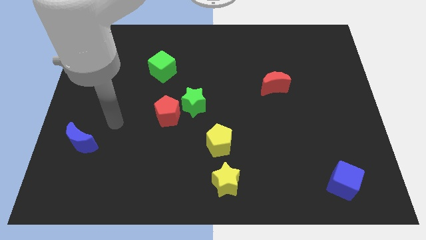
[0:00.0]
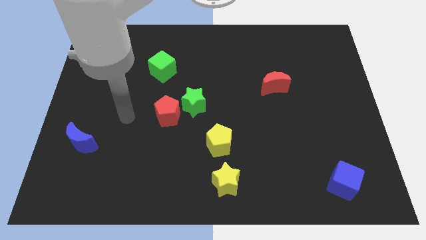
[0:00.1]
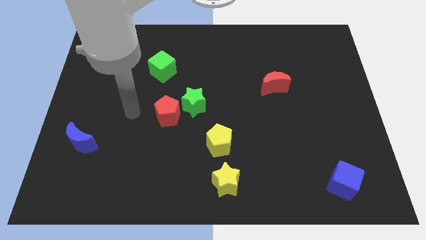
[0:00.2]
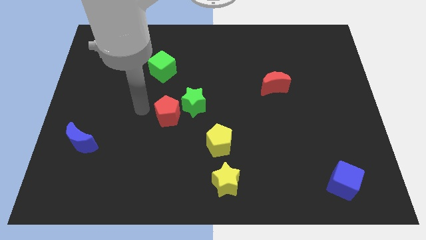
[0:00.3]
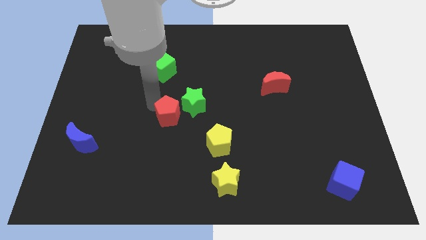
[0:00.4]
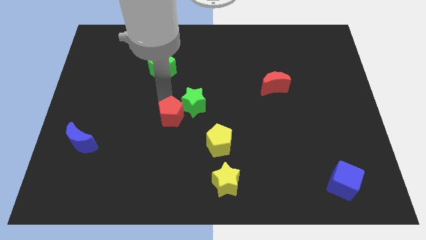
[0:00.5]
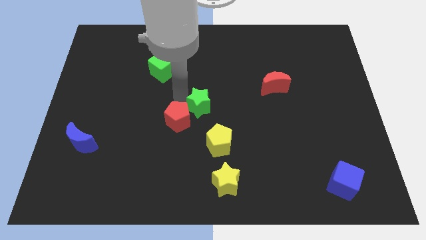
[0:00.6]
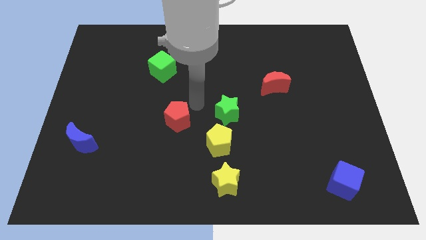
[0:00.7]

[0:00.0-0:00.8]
pull the red pentagon apart from the green star

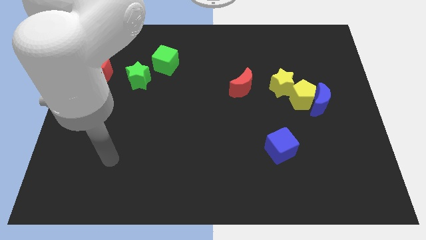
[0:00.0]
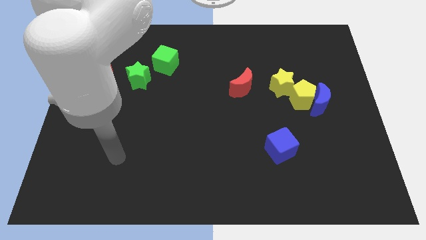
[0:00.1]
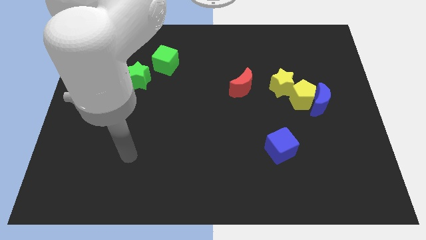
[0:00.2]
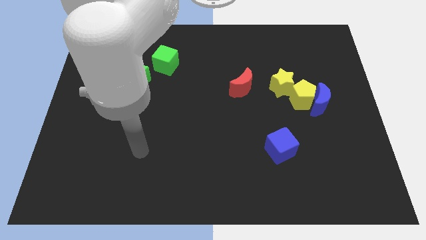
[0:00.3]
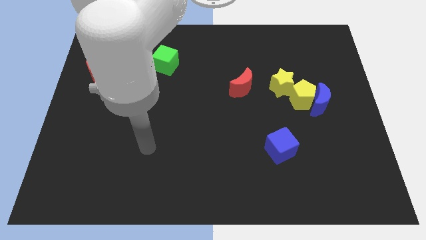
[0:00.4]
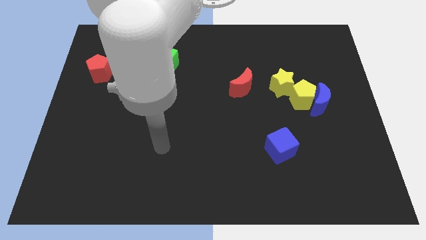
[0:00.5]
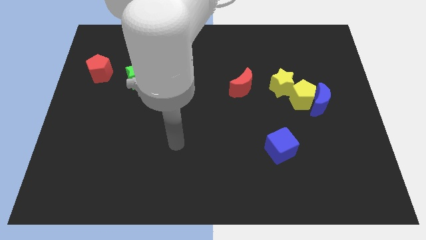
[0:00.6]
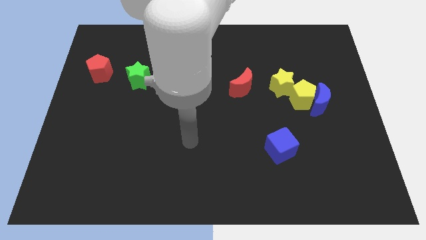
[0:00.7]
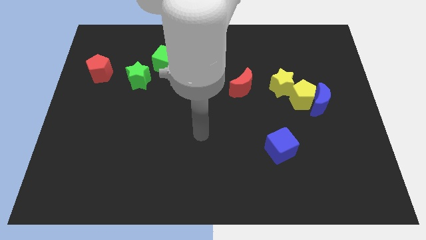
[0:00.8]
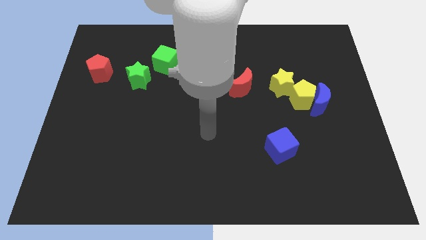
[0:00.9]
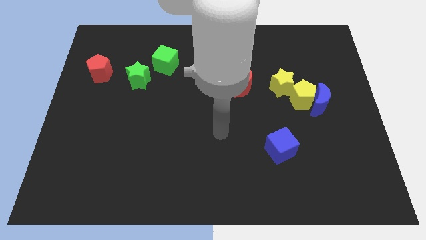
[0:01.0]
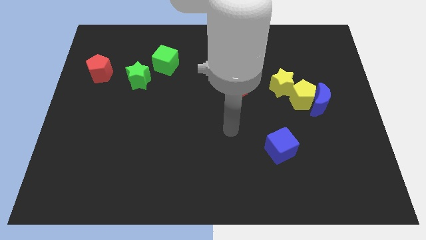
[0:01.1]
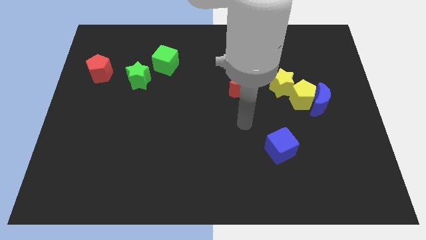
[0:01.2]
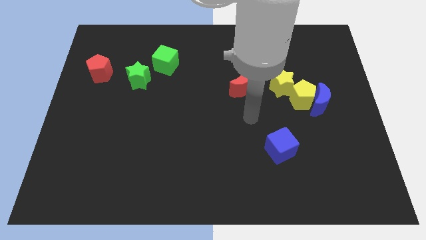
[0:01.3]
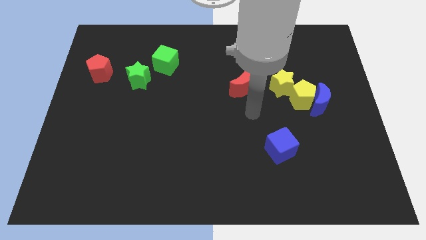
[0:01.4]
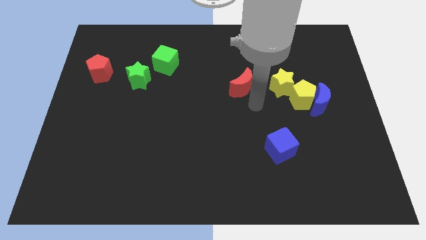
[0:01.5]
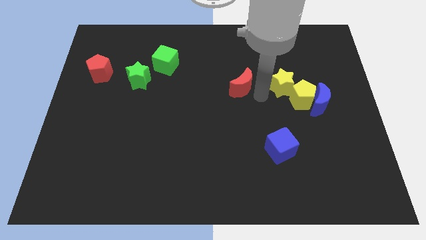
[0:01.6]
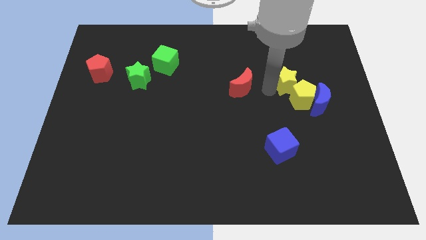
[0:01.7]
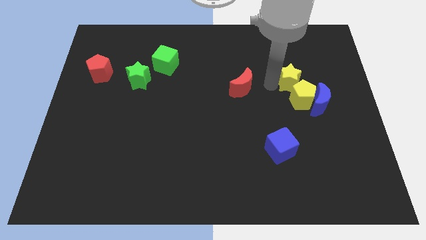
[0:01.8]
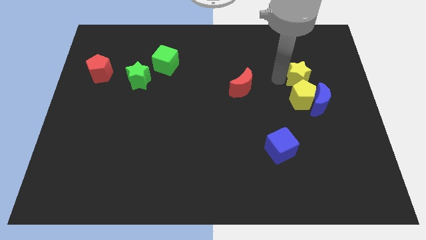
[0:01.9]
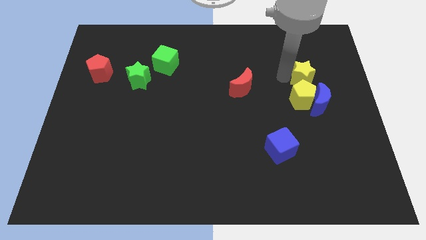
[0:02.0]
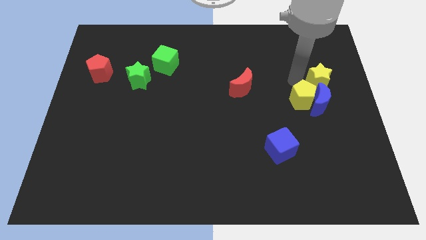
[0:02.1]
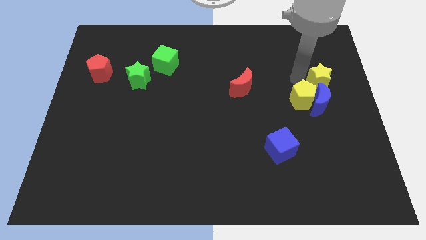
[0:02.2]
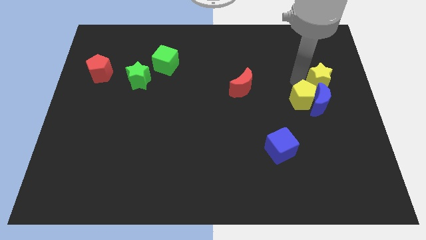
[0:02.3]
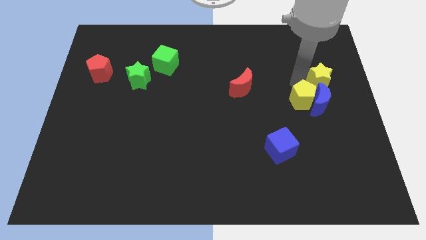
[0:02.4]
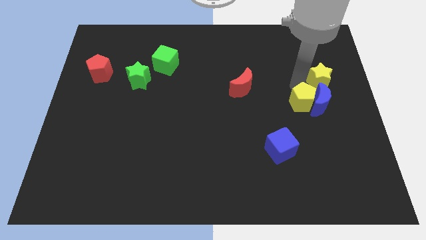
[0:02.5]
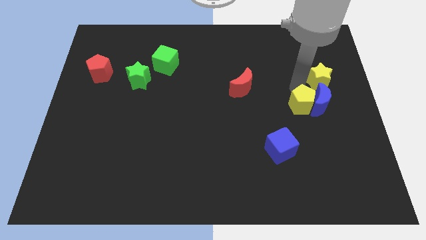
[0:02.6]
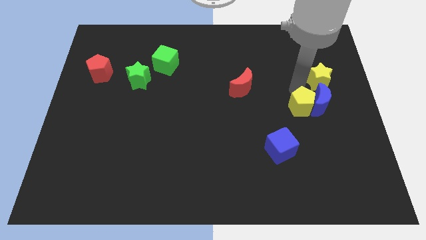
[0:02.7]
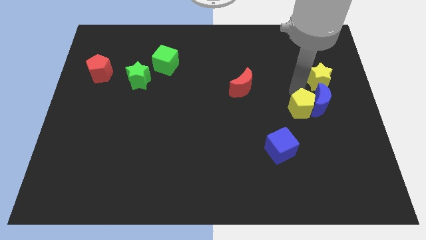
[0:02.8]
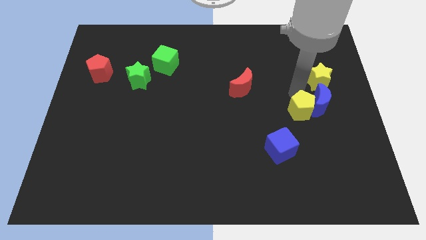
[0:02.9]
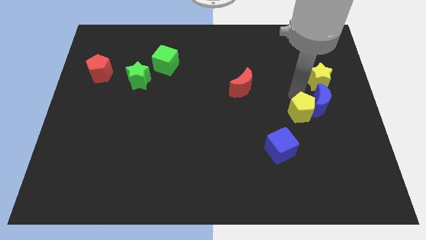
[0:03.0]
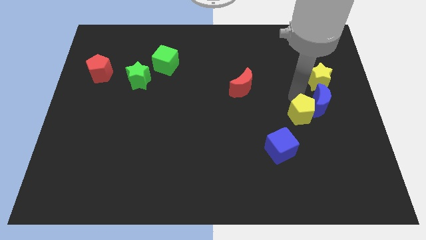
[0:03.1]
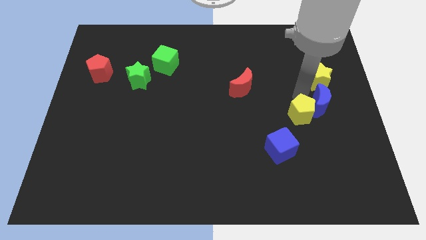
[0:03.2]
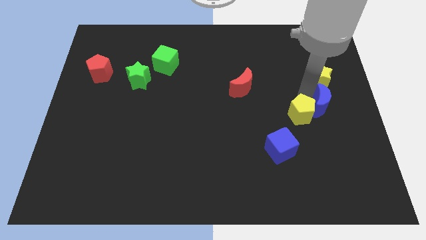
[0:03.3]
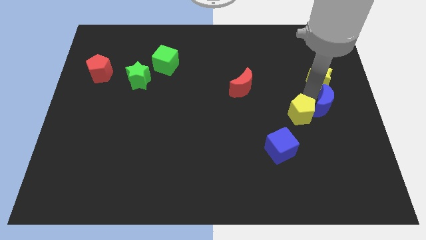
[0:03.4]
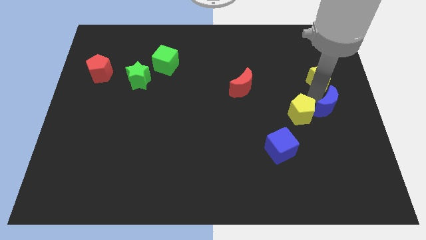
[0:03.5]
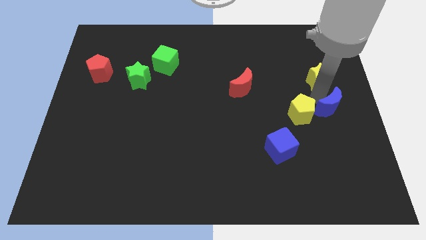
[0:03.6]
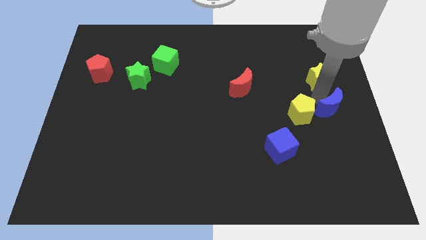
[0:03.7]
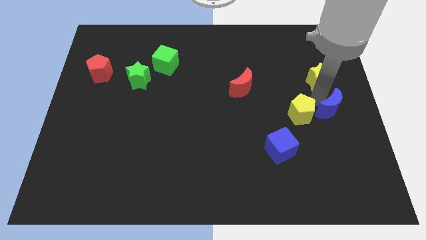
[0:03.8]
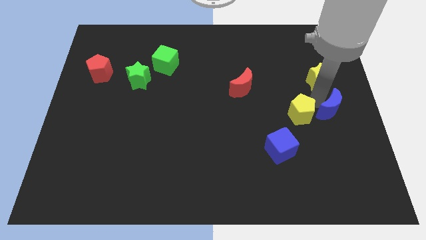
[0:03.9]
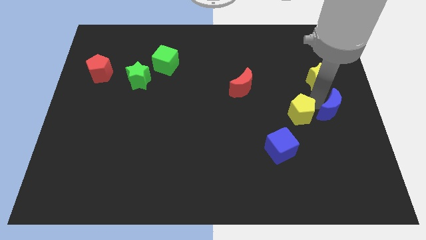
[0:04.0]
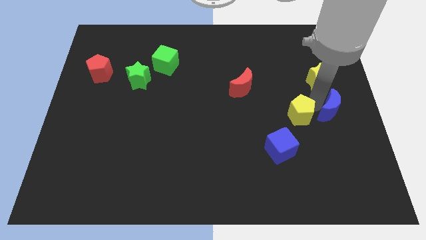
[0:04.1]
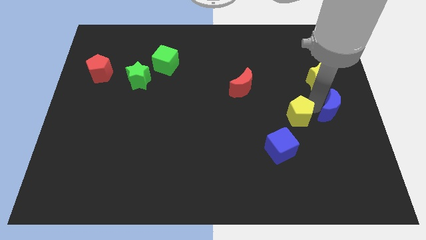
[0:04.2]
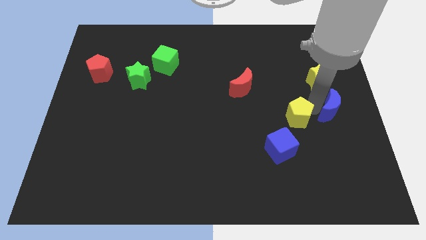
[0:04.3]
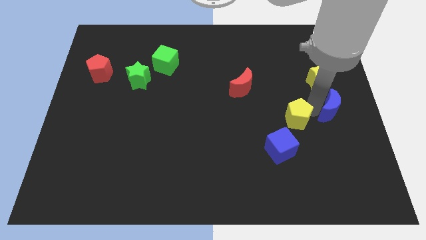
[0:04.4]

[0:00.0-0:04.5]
pull the yellow pentagon apart from the blue moon and yellow star

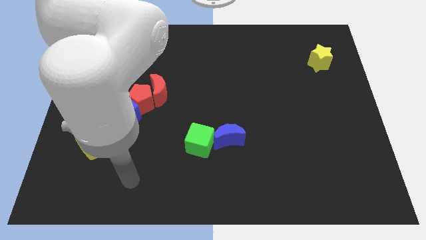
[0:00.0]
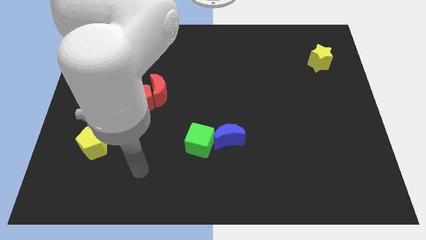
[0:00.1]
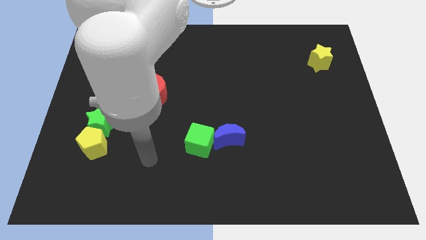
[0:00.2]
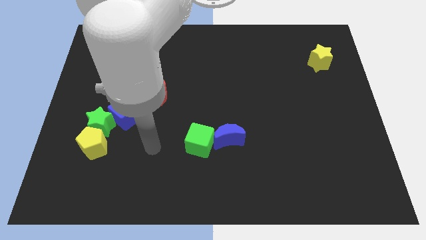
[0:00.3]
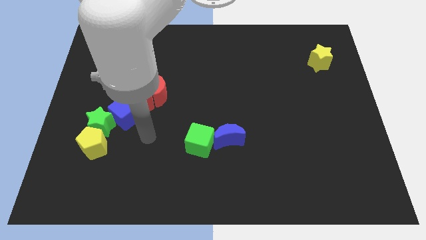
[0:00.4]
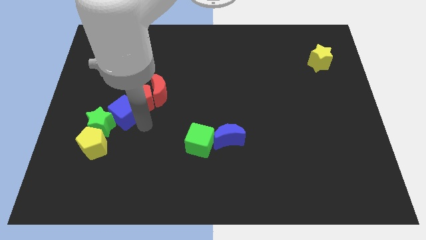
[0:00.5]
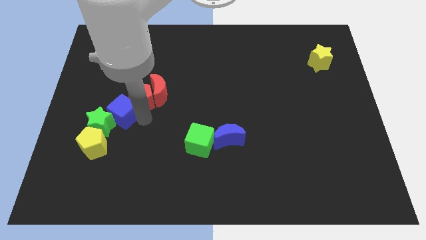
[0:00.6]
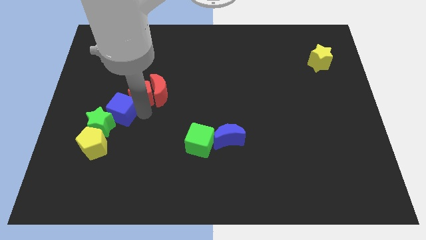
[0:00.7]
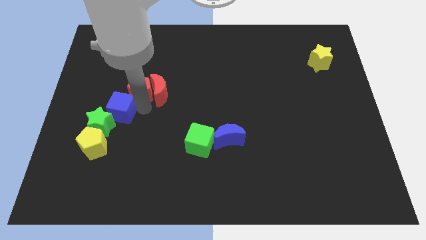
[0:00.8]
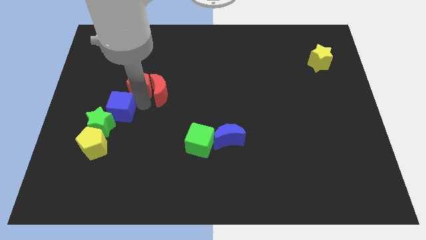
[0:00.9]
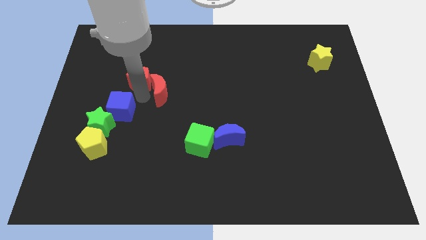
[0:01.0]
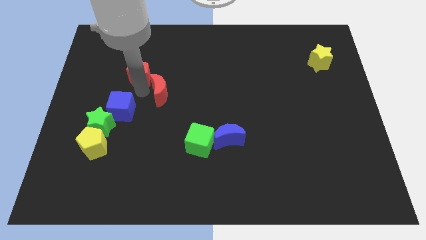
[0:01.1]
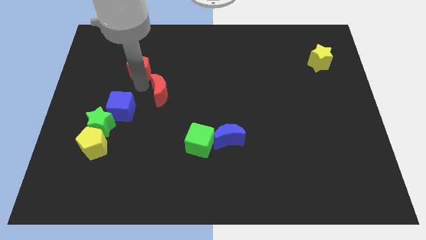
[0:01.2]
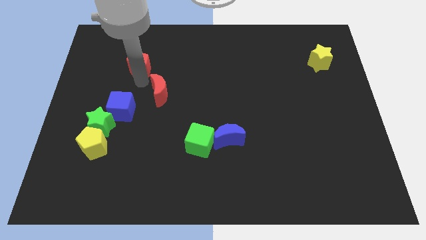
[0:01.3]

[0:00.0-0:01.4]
pull the red pentagon apart from the red moon and blue cube

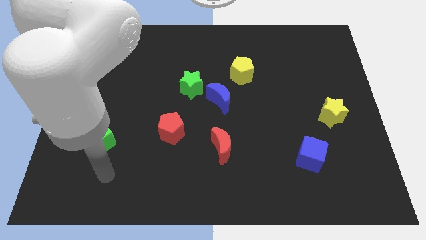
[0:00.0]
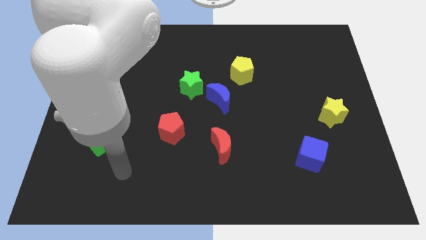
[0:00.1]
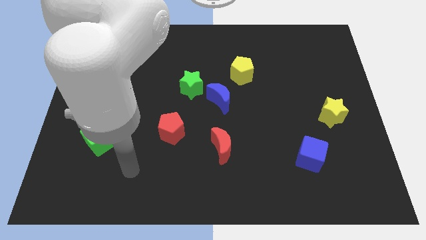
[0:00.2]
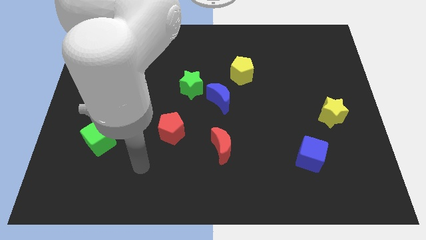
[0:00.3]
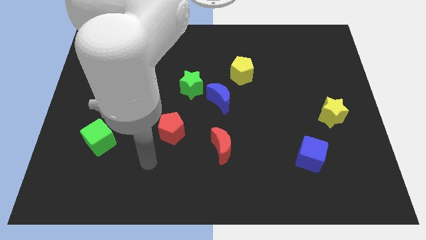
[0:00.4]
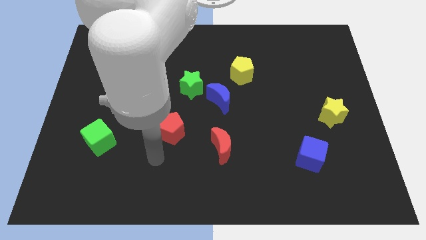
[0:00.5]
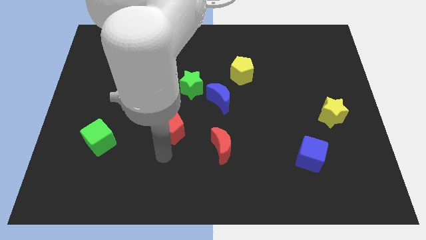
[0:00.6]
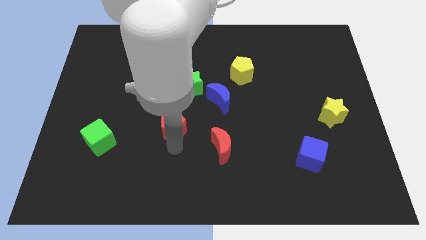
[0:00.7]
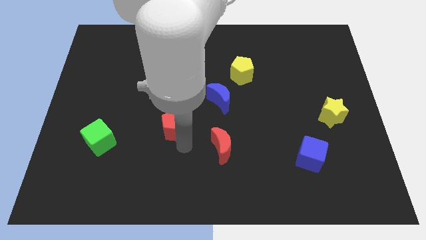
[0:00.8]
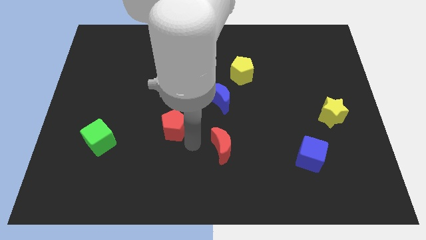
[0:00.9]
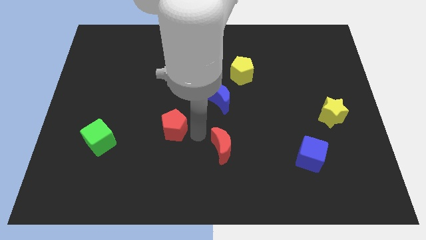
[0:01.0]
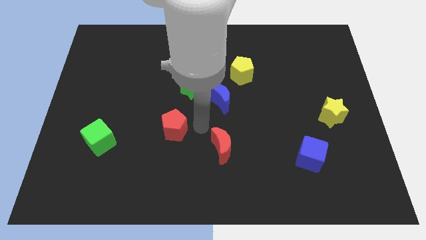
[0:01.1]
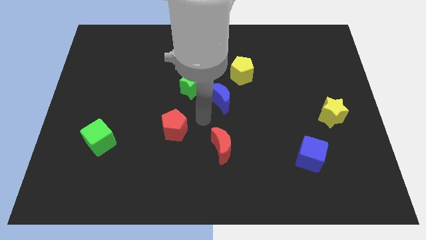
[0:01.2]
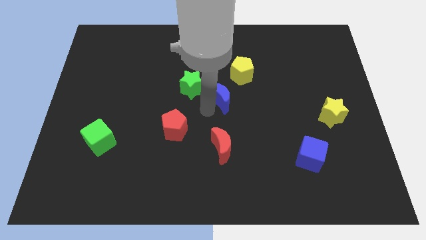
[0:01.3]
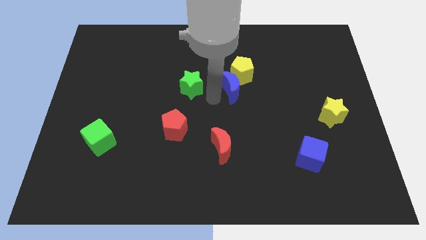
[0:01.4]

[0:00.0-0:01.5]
move the green star away from the blue moon

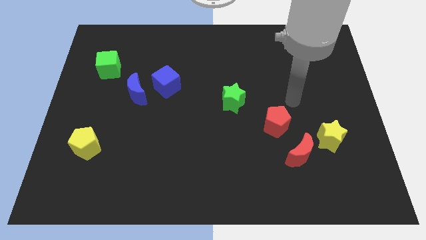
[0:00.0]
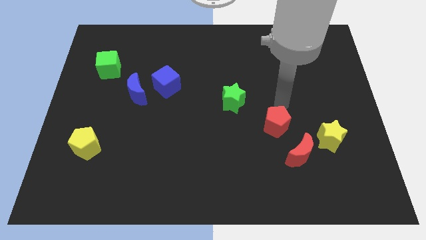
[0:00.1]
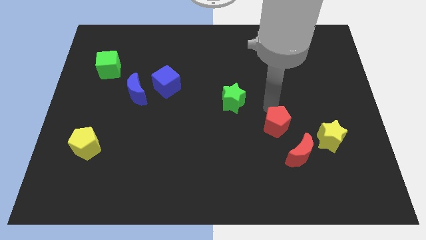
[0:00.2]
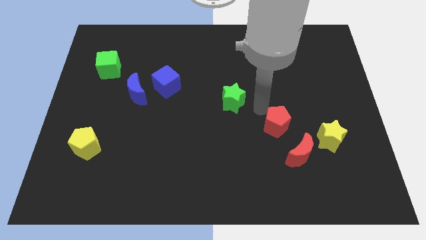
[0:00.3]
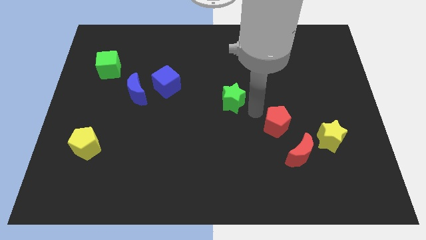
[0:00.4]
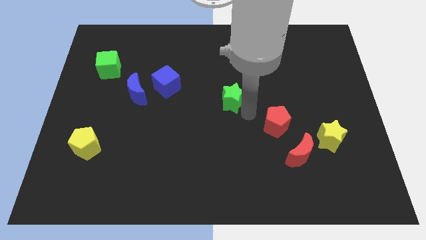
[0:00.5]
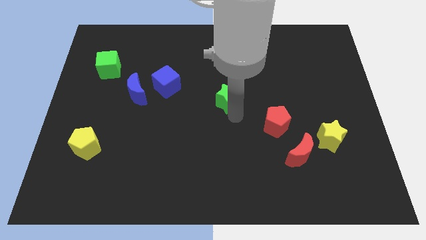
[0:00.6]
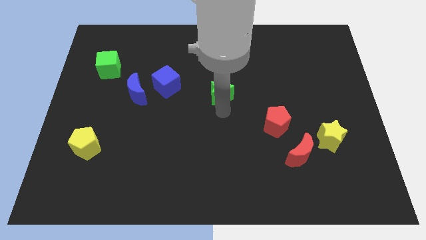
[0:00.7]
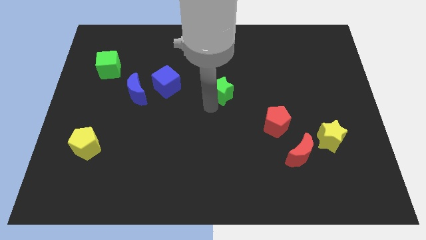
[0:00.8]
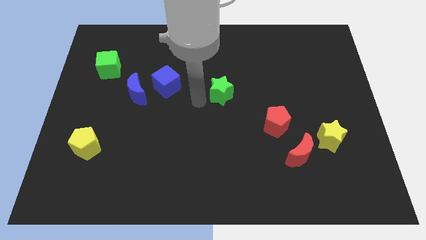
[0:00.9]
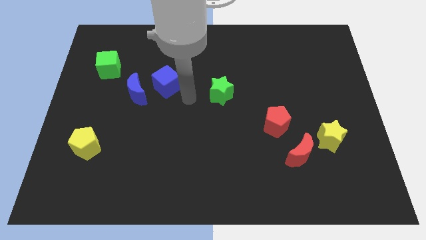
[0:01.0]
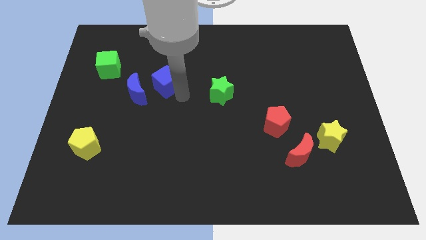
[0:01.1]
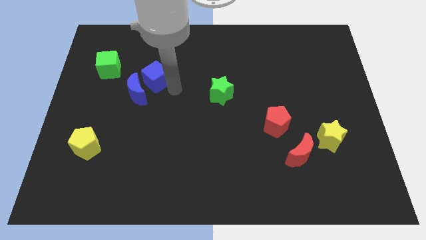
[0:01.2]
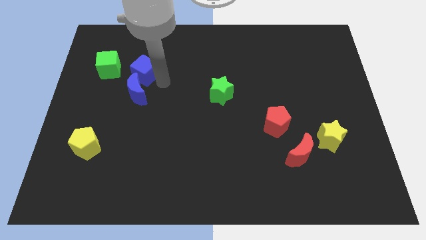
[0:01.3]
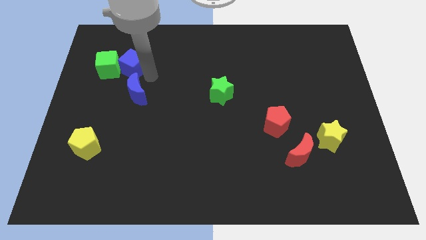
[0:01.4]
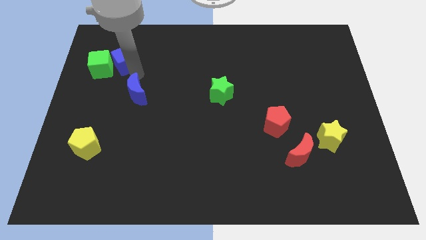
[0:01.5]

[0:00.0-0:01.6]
move the blue moon away from the blue cube
